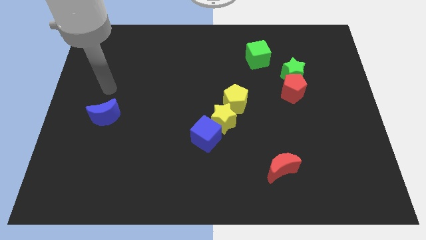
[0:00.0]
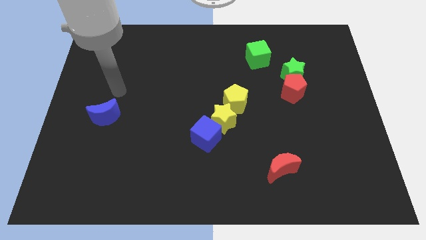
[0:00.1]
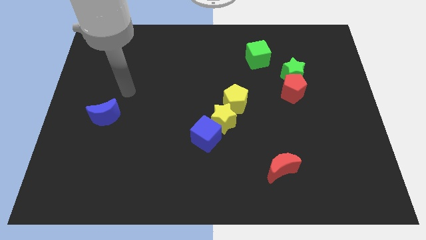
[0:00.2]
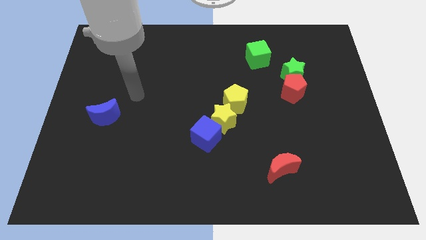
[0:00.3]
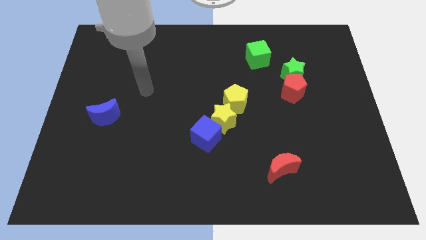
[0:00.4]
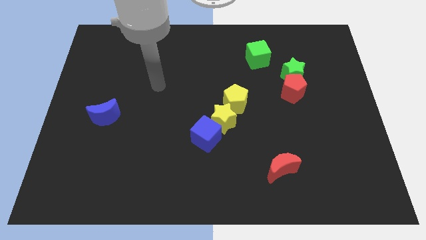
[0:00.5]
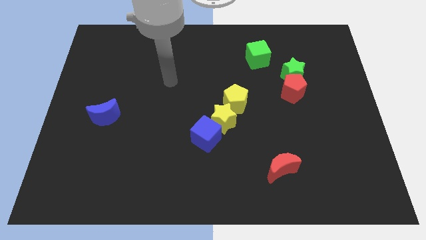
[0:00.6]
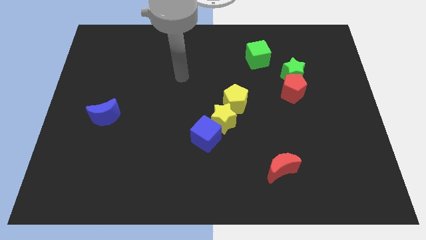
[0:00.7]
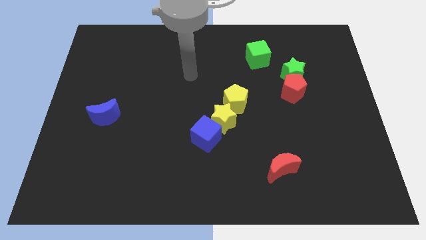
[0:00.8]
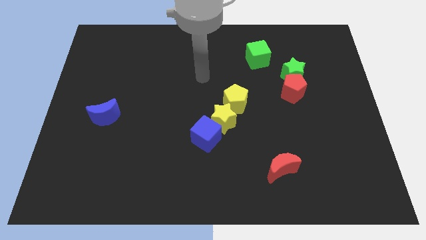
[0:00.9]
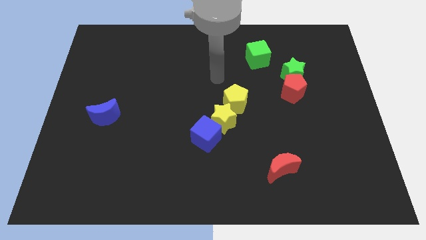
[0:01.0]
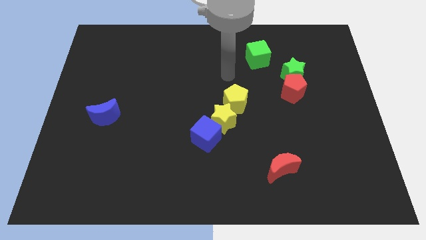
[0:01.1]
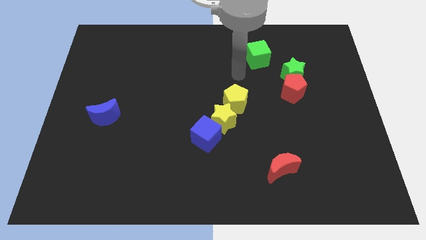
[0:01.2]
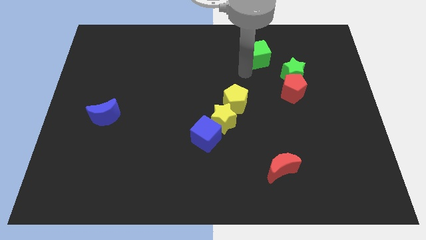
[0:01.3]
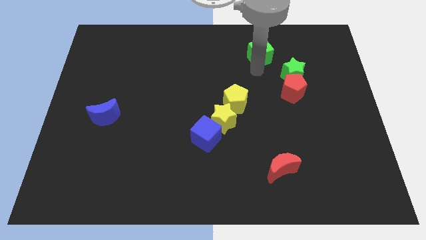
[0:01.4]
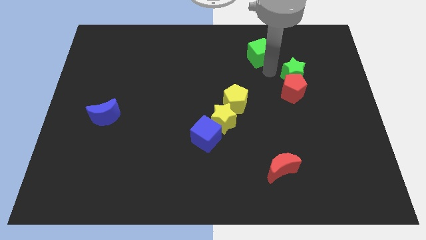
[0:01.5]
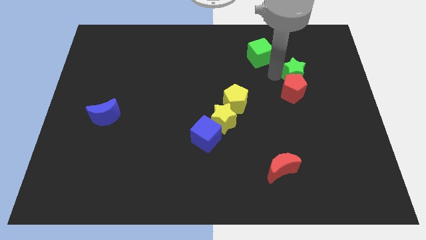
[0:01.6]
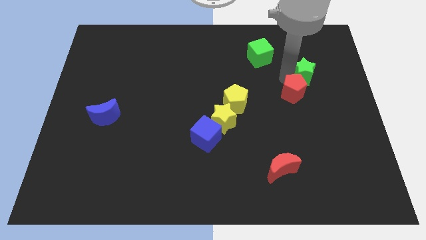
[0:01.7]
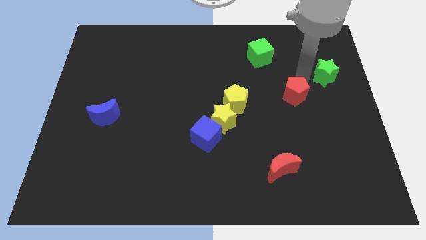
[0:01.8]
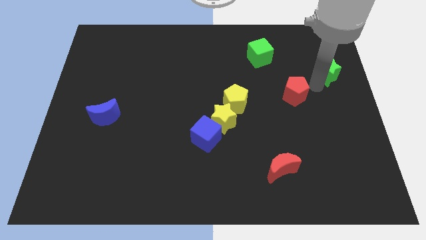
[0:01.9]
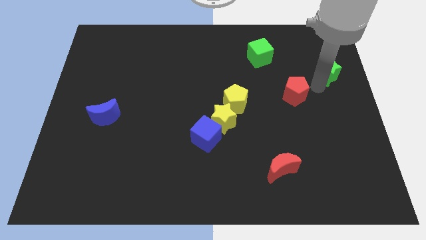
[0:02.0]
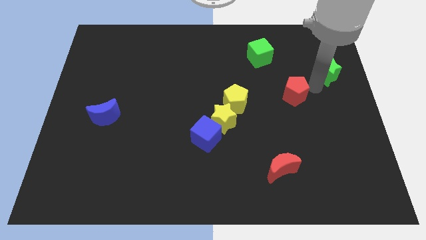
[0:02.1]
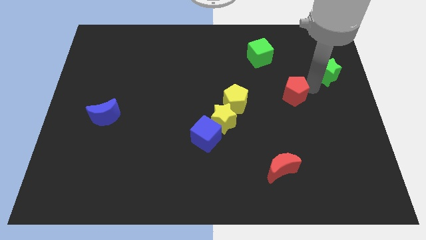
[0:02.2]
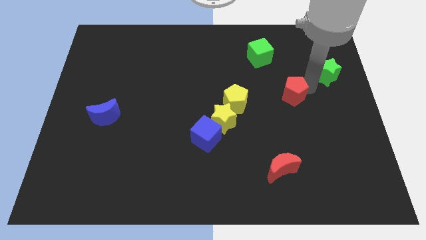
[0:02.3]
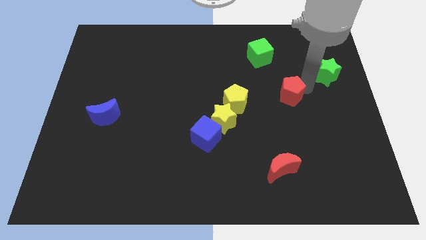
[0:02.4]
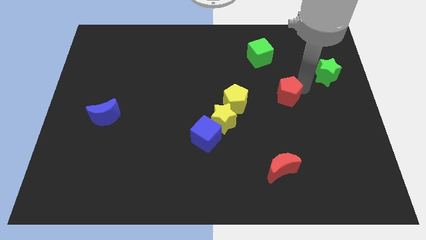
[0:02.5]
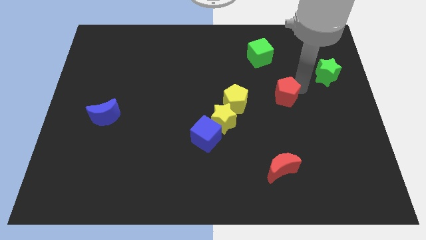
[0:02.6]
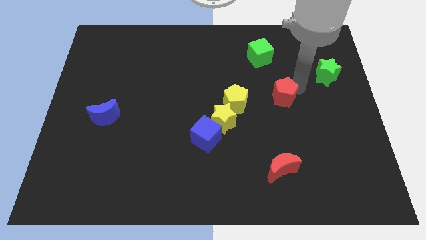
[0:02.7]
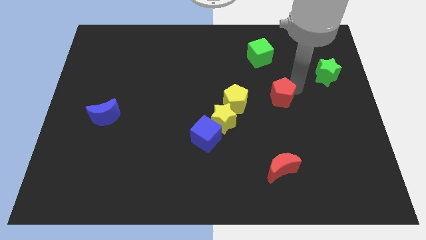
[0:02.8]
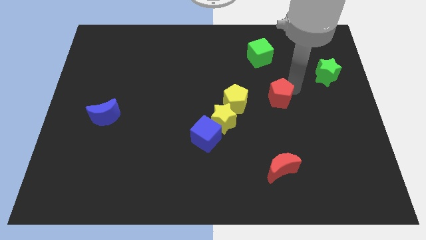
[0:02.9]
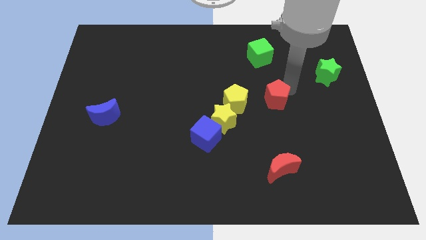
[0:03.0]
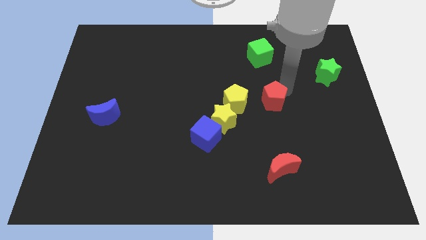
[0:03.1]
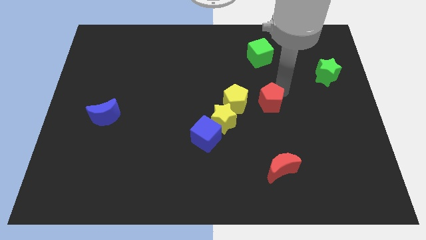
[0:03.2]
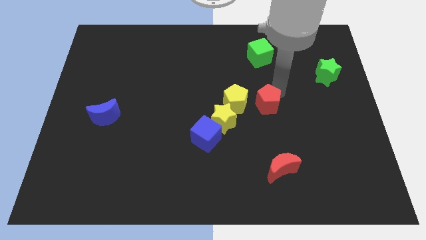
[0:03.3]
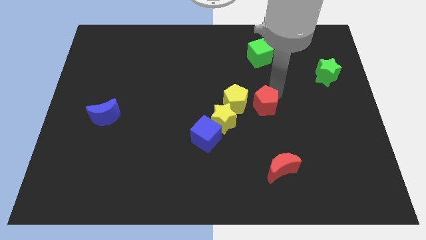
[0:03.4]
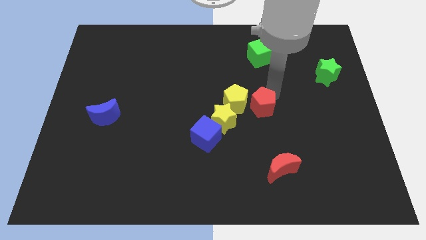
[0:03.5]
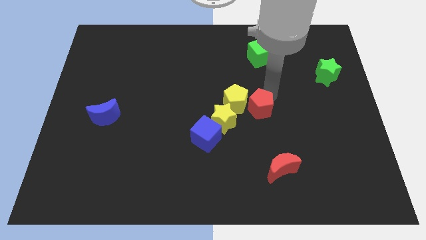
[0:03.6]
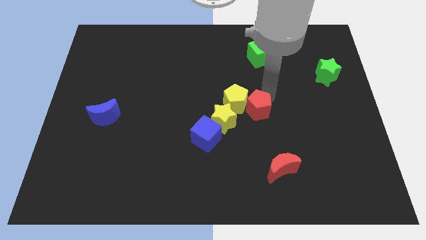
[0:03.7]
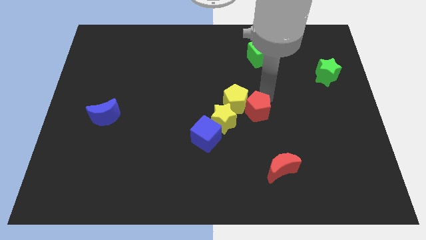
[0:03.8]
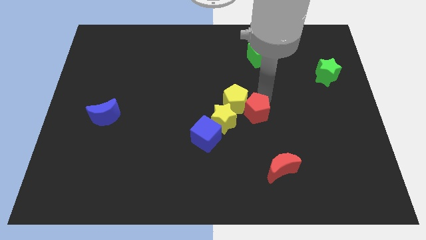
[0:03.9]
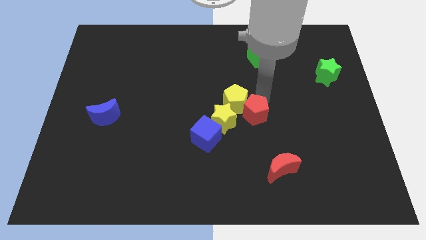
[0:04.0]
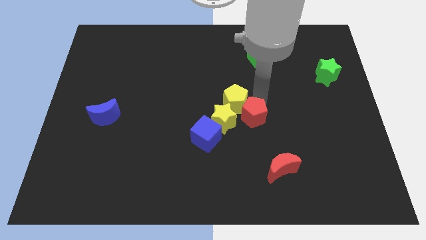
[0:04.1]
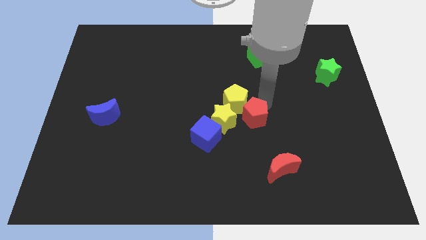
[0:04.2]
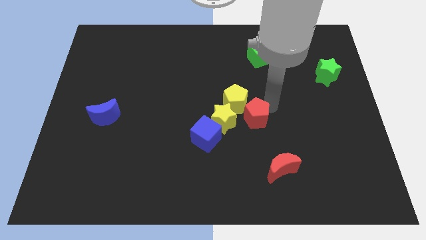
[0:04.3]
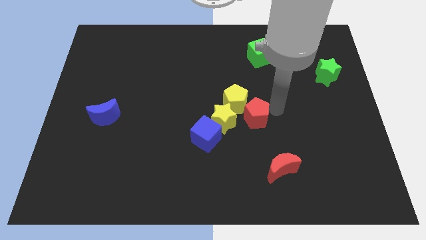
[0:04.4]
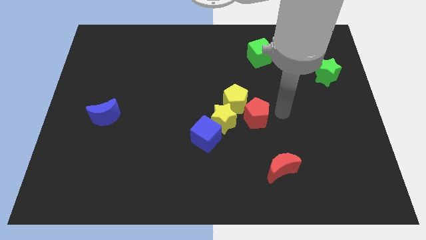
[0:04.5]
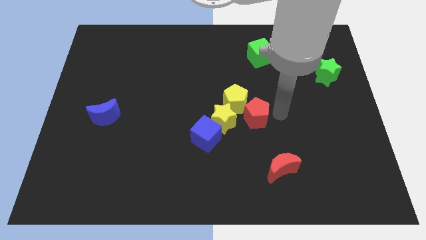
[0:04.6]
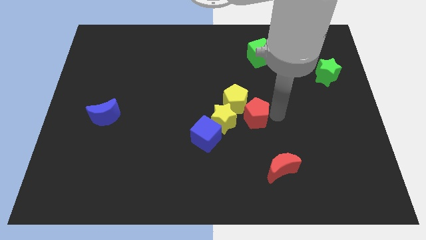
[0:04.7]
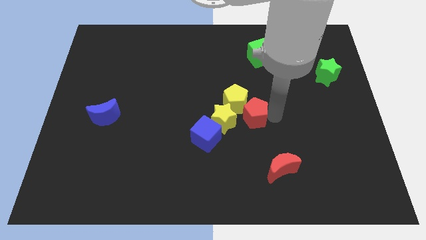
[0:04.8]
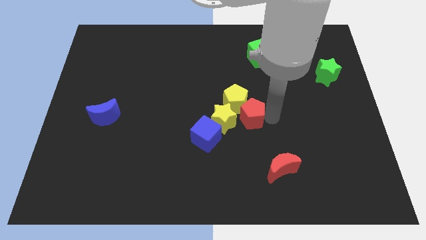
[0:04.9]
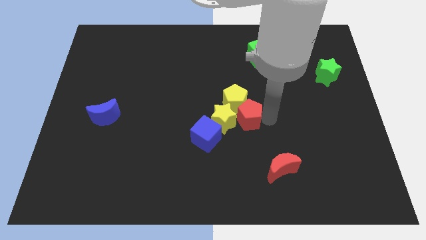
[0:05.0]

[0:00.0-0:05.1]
slide the red pentagon towards the yellow star

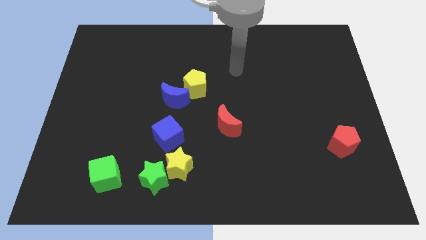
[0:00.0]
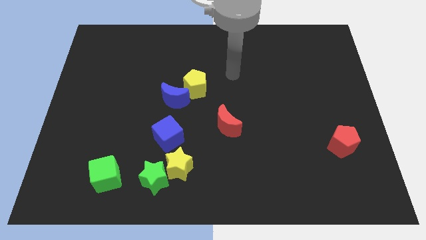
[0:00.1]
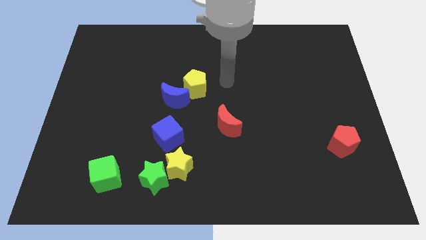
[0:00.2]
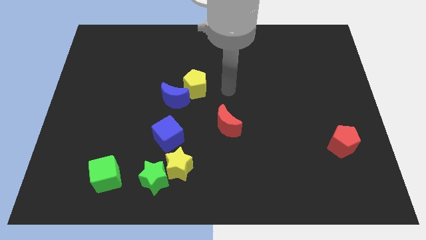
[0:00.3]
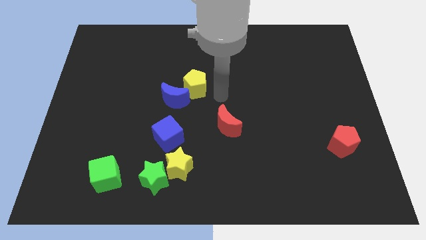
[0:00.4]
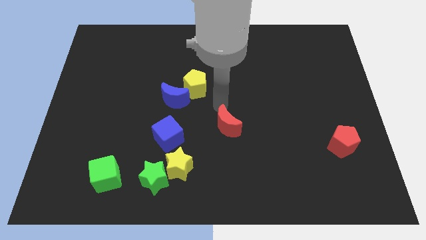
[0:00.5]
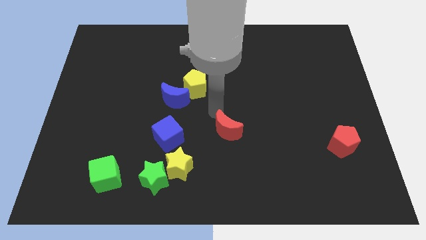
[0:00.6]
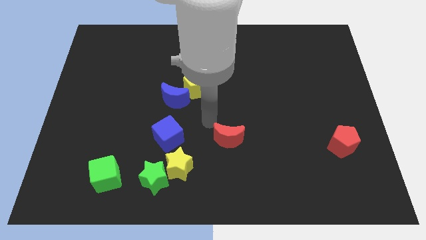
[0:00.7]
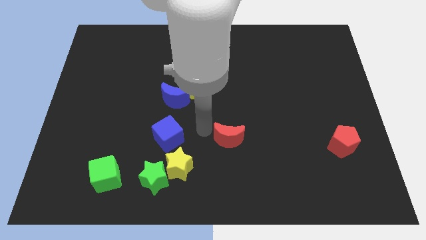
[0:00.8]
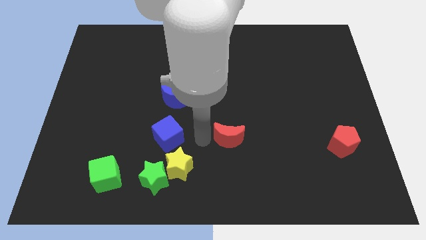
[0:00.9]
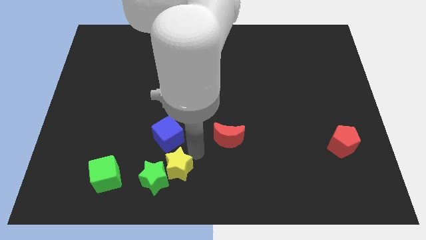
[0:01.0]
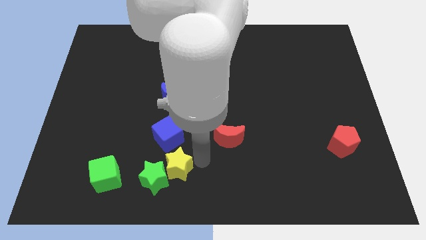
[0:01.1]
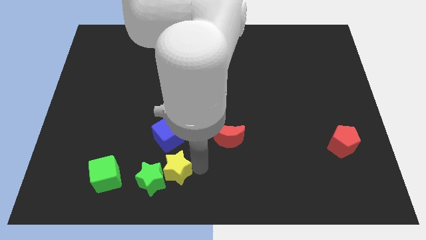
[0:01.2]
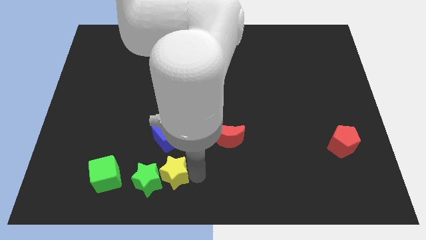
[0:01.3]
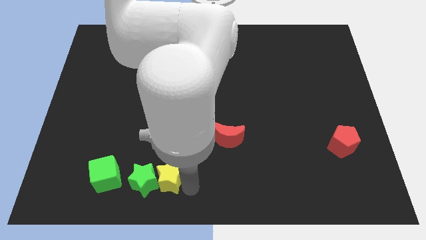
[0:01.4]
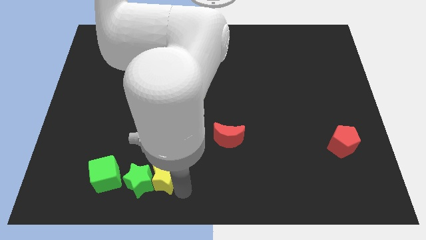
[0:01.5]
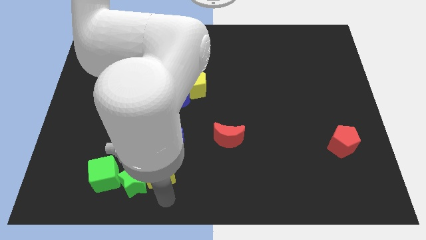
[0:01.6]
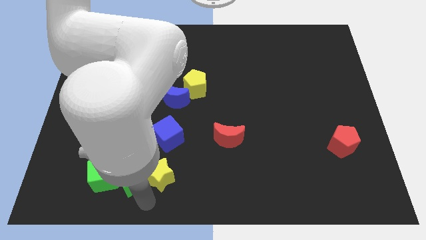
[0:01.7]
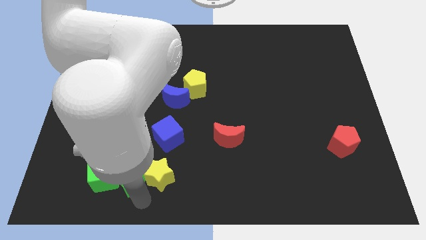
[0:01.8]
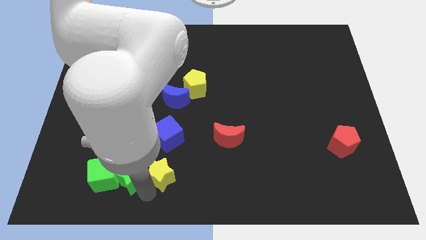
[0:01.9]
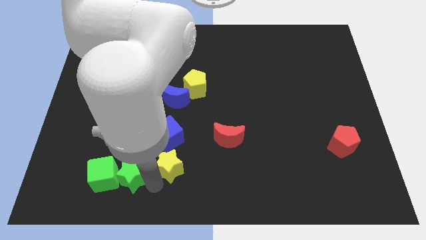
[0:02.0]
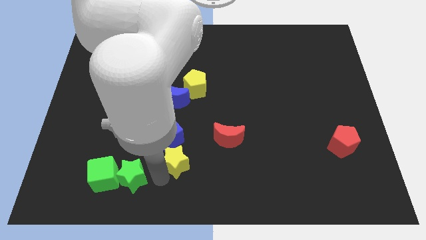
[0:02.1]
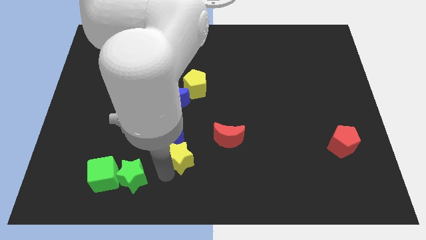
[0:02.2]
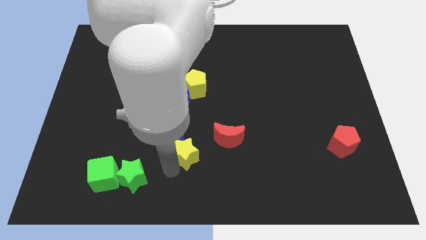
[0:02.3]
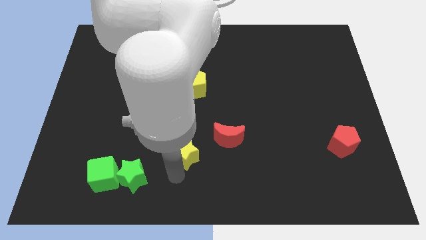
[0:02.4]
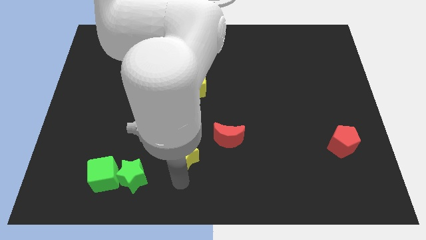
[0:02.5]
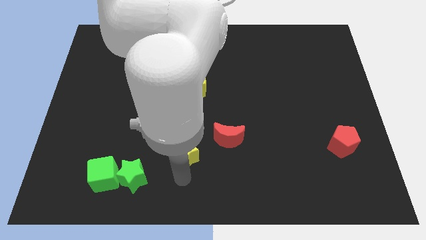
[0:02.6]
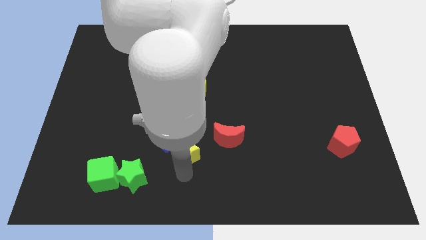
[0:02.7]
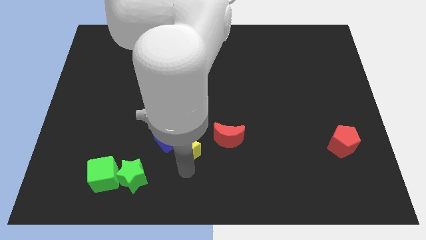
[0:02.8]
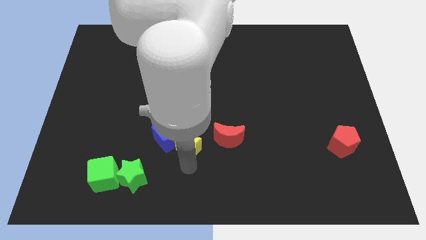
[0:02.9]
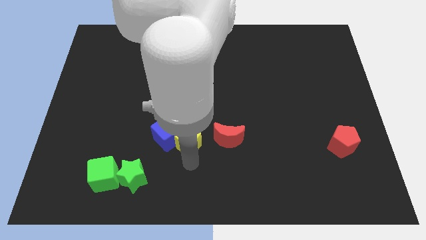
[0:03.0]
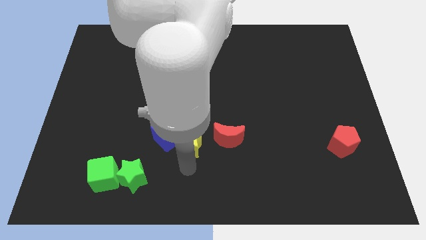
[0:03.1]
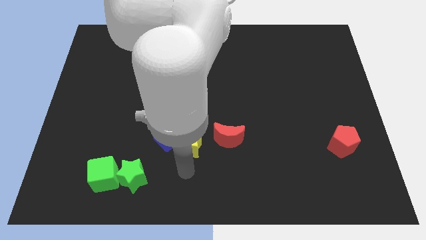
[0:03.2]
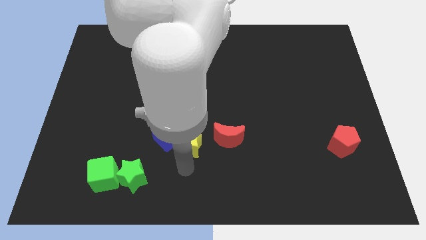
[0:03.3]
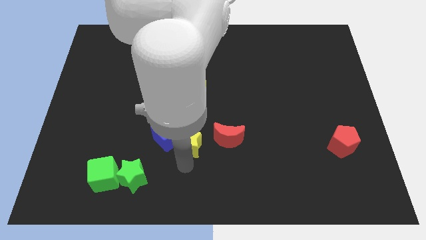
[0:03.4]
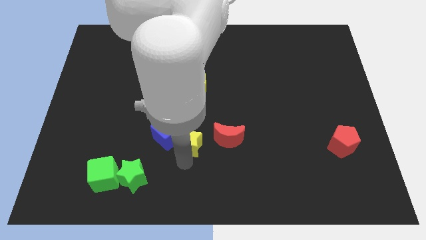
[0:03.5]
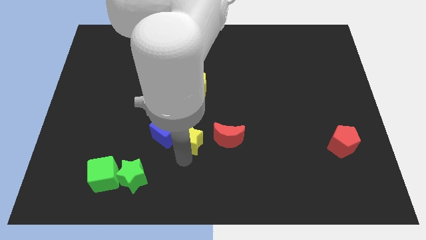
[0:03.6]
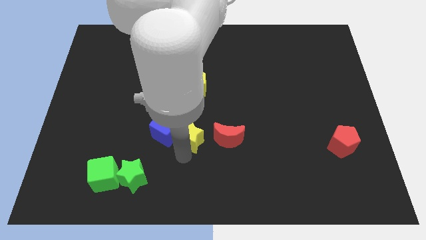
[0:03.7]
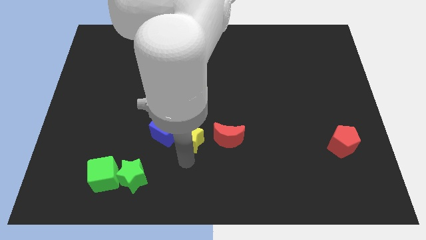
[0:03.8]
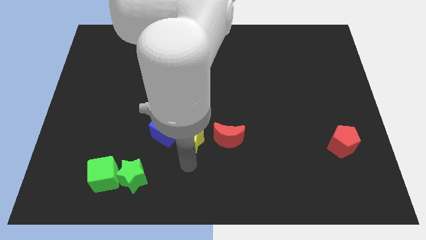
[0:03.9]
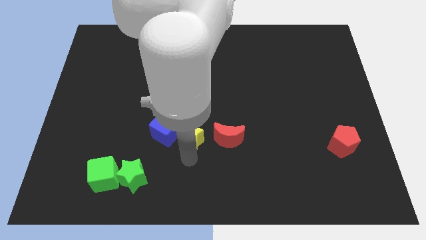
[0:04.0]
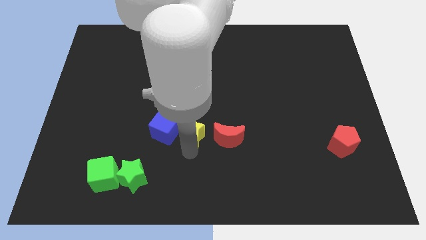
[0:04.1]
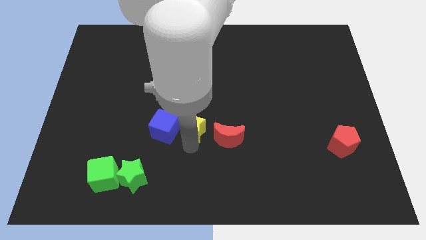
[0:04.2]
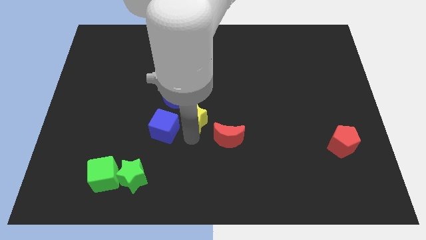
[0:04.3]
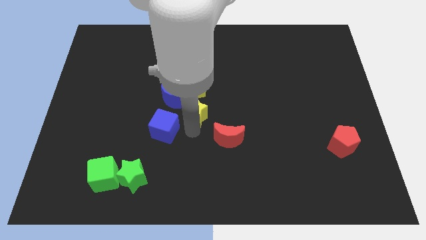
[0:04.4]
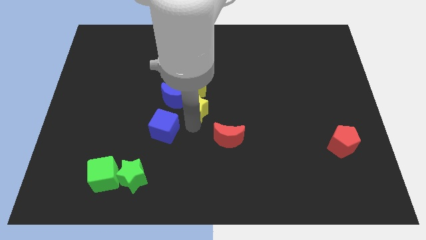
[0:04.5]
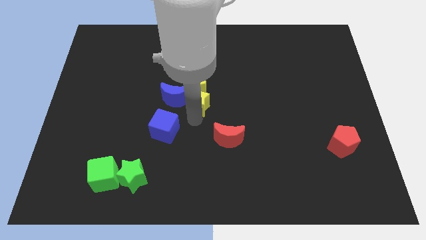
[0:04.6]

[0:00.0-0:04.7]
put the yellow star close to the yellow pentagon
